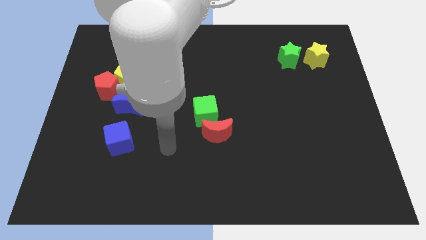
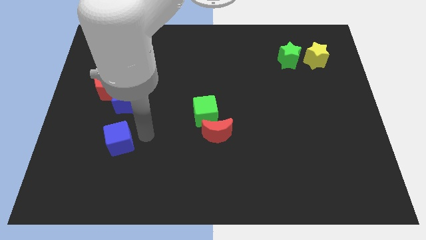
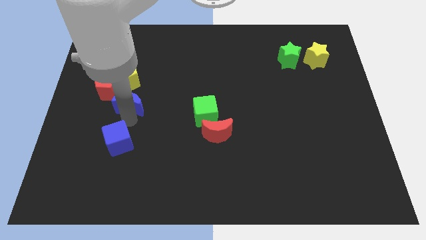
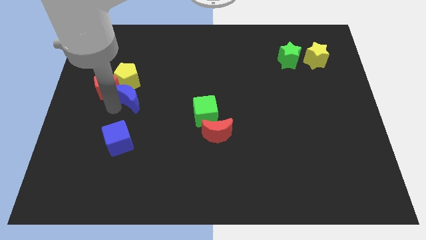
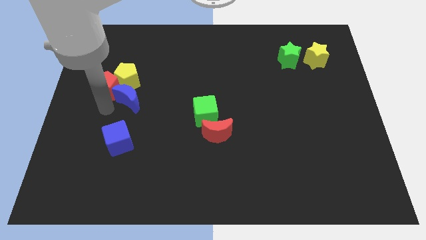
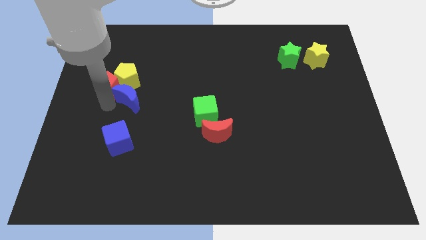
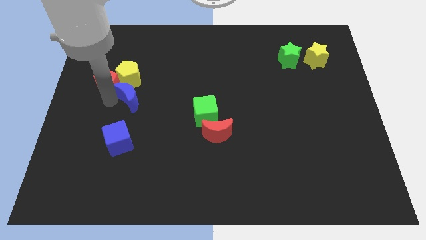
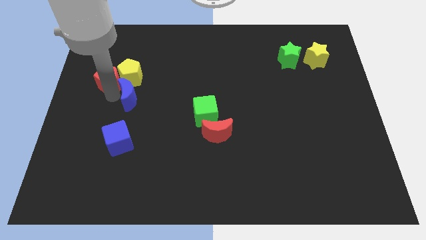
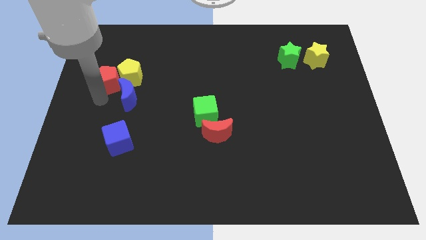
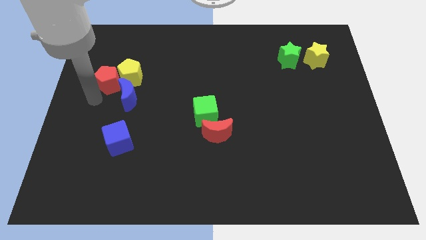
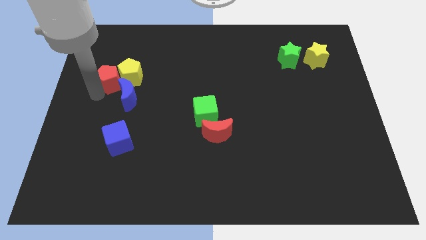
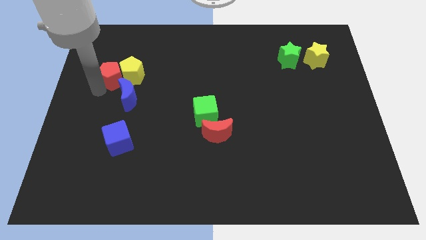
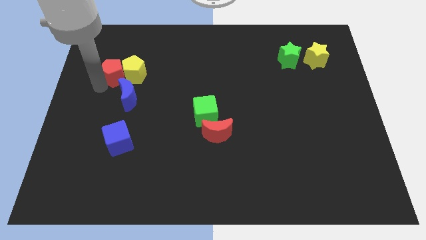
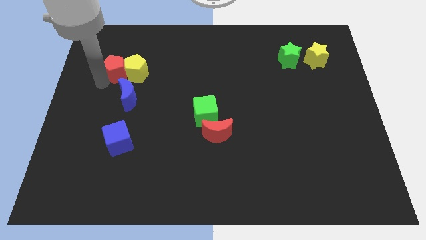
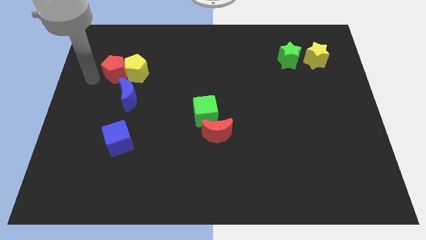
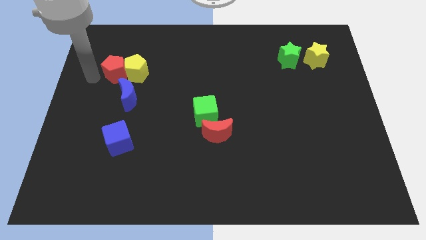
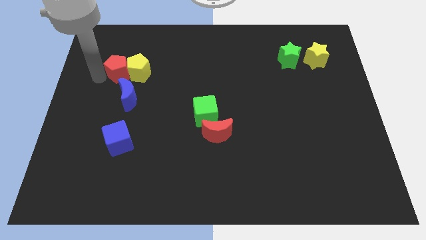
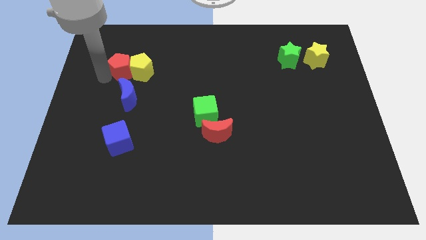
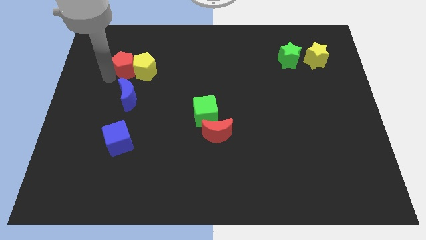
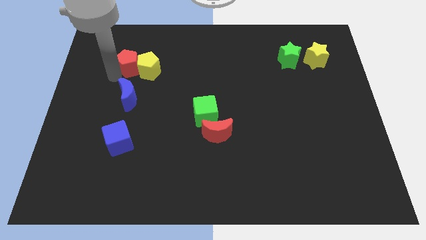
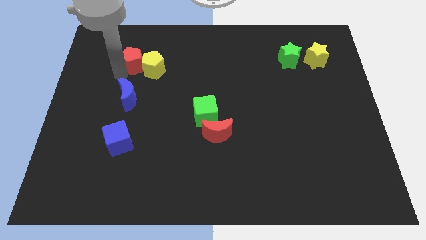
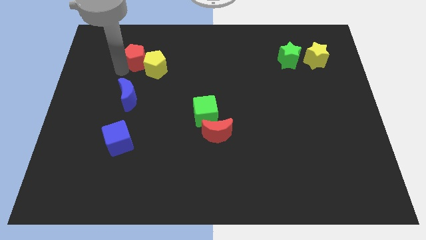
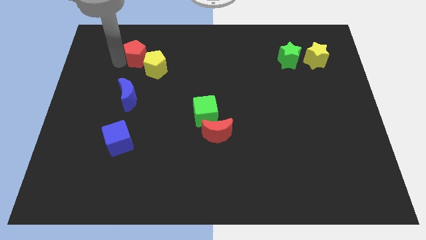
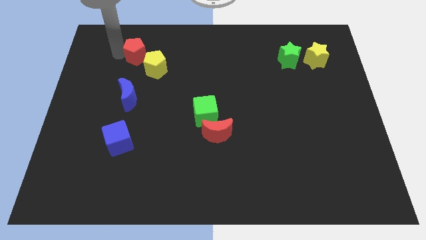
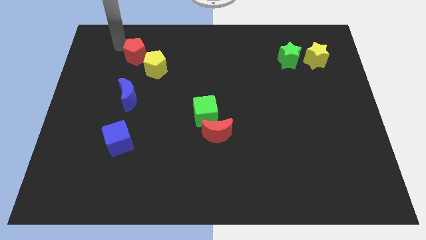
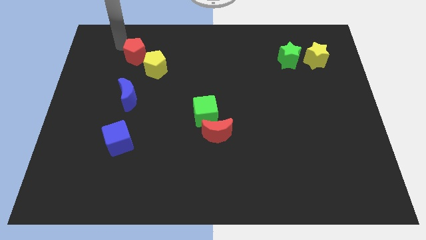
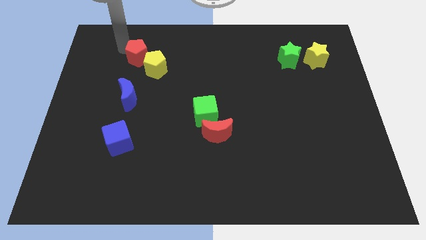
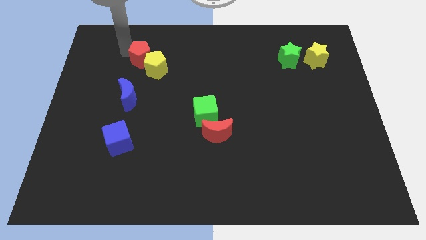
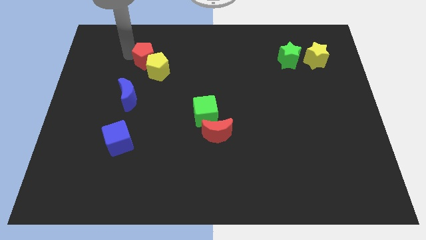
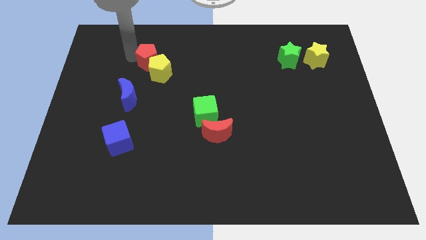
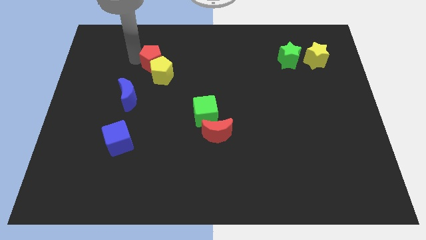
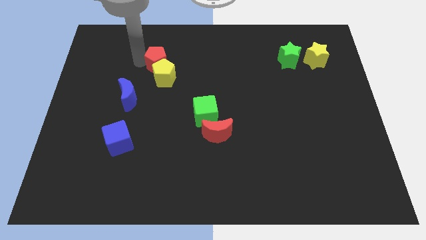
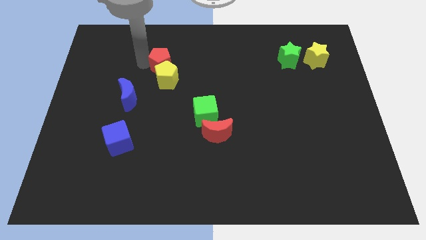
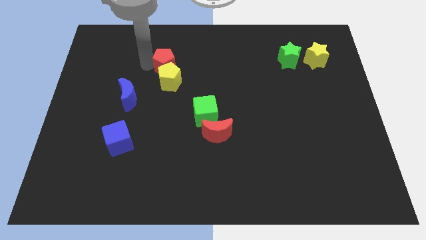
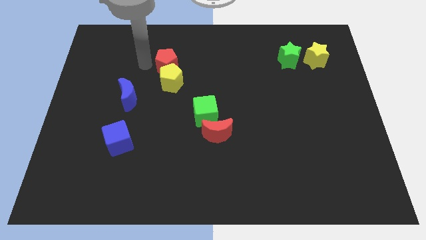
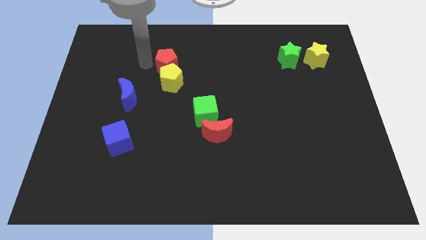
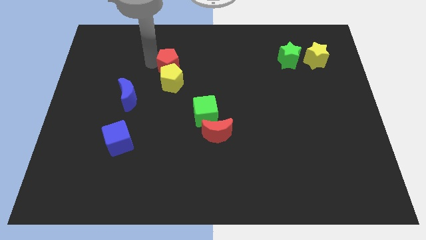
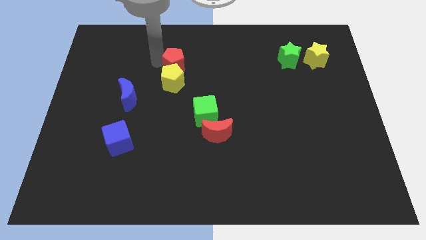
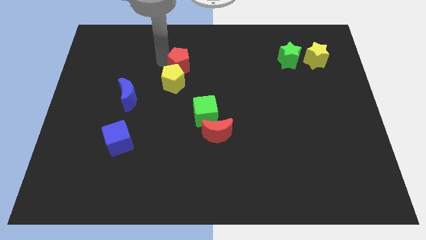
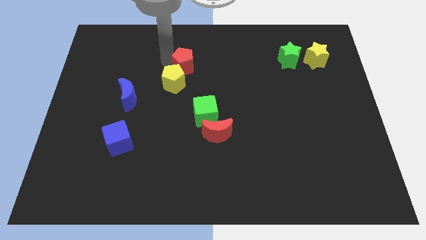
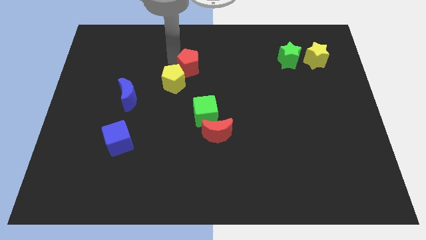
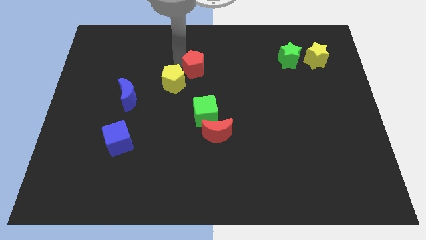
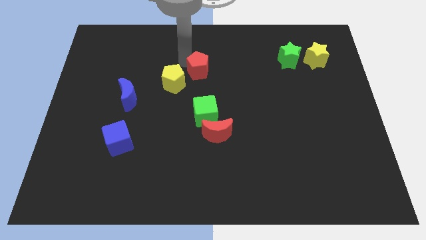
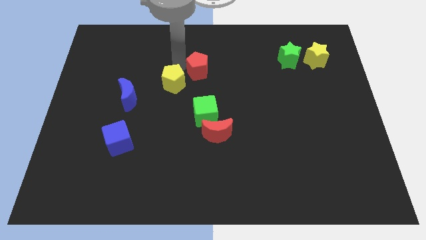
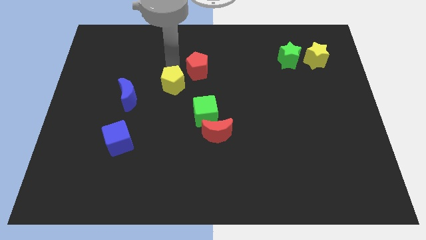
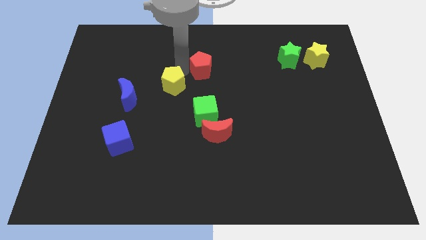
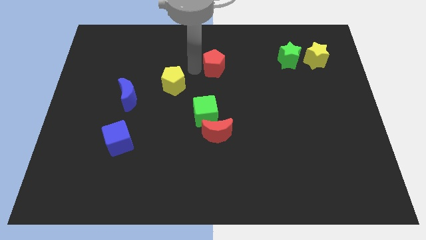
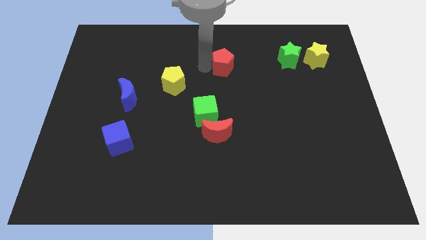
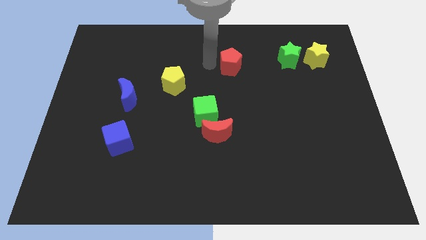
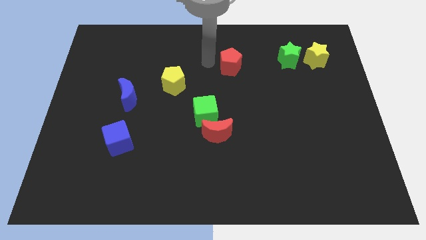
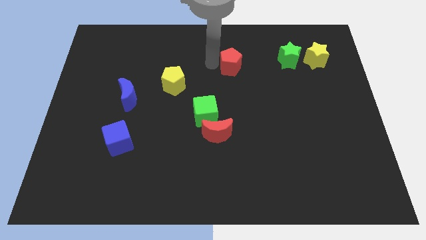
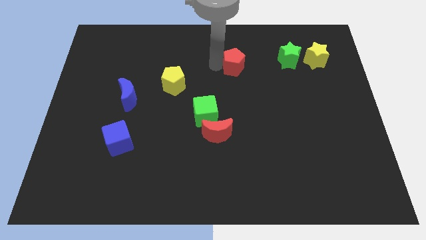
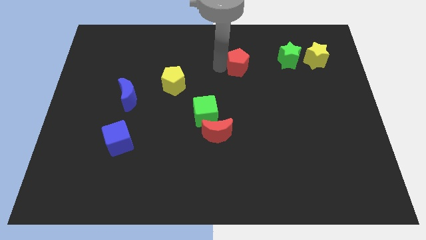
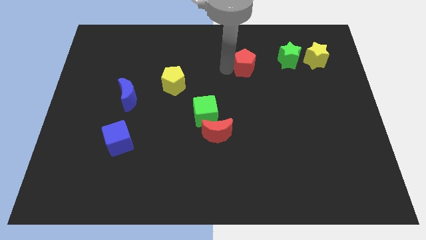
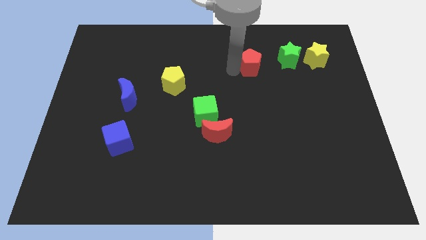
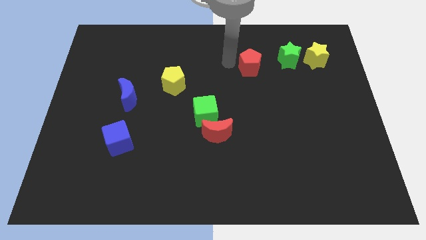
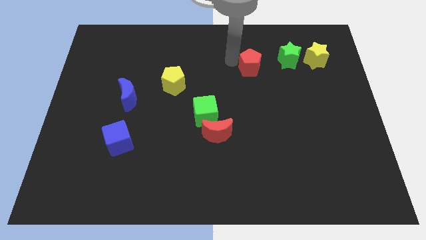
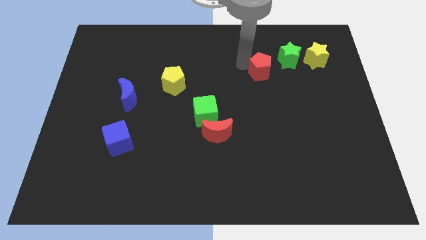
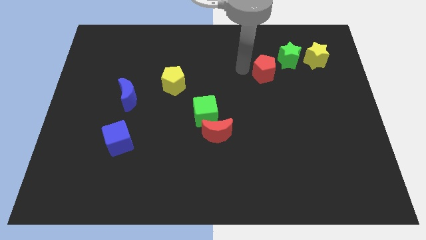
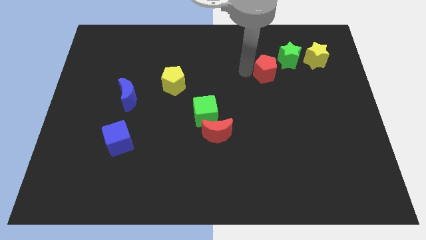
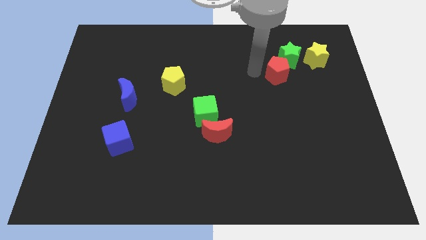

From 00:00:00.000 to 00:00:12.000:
push the red pentagon to the bottom left of the yellow star

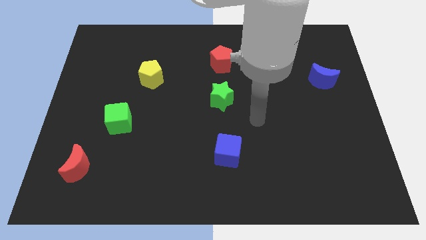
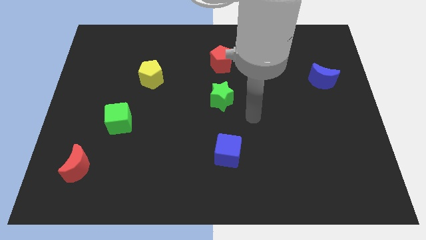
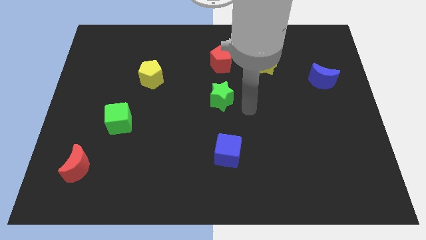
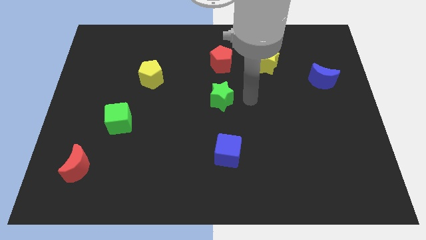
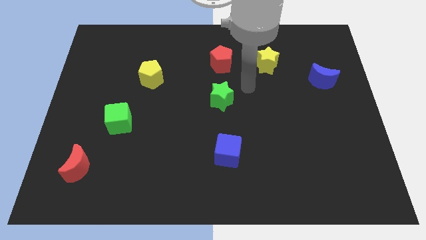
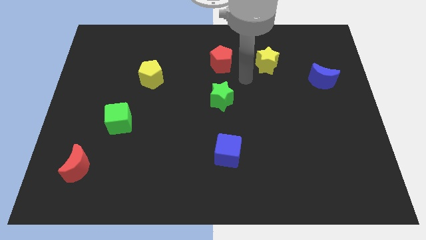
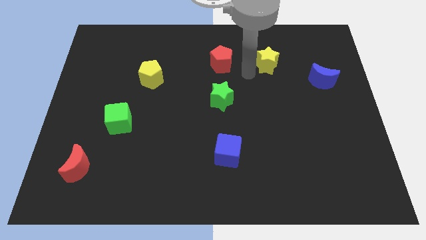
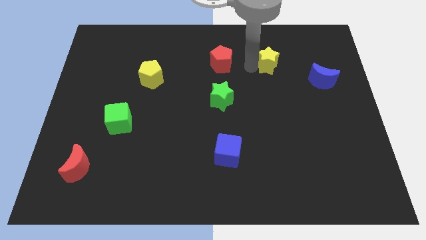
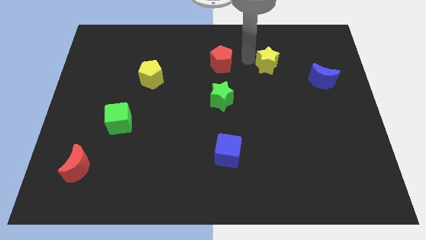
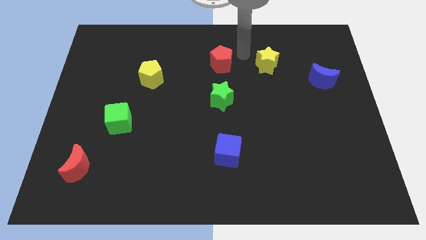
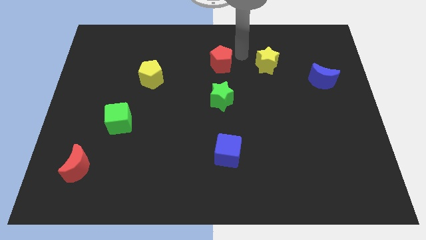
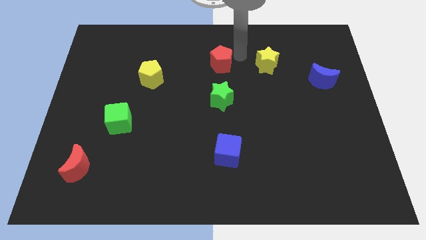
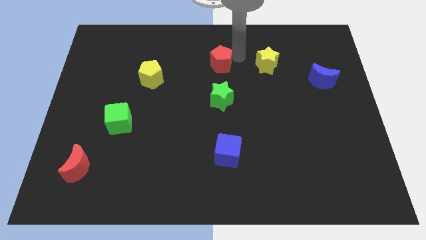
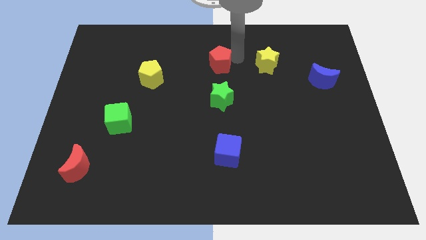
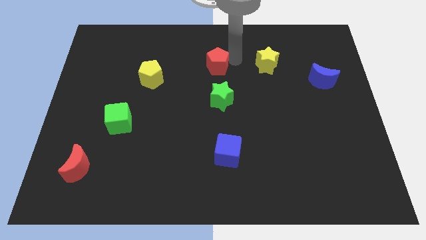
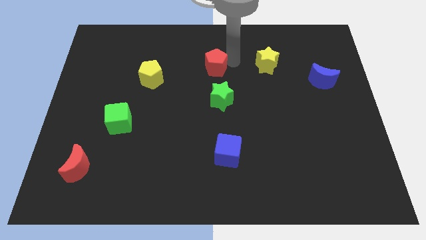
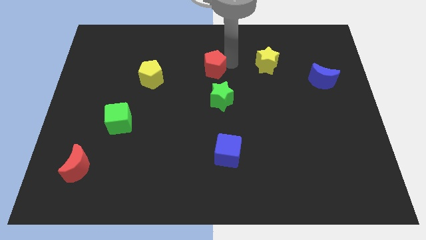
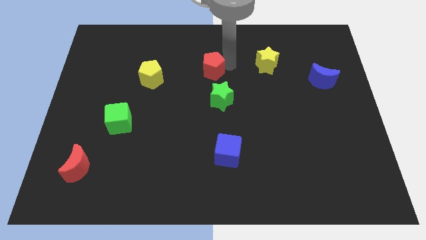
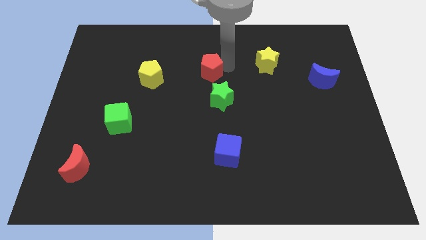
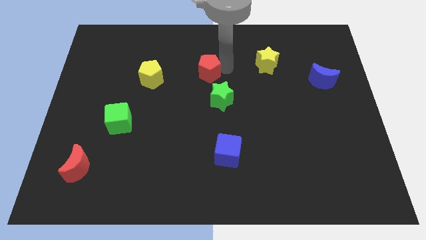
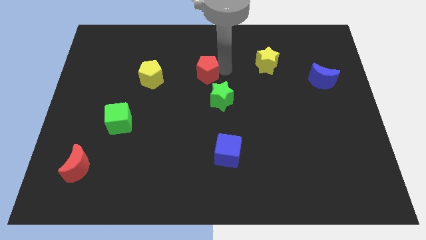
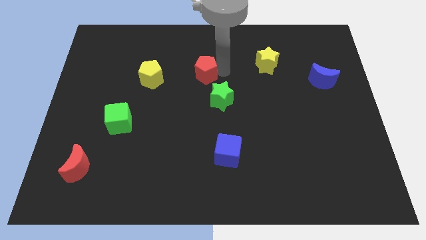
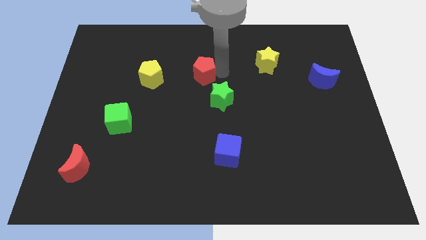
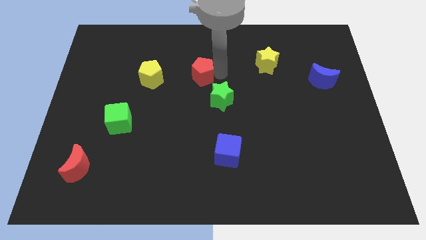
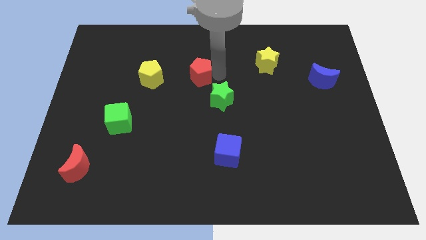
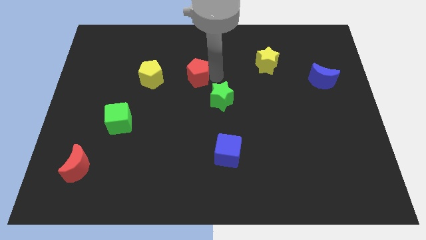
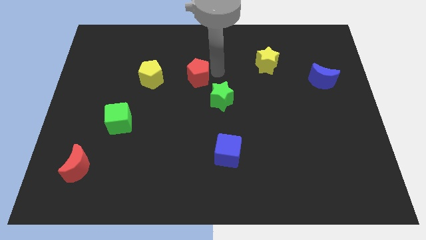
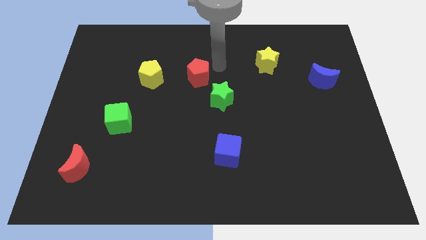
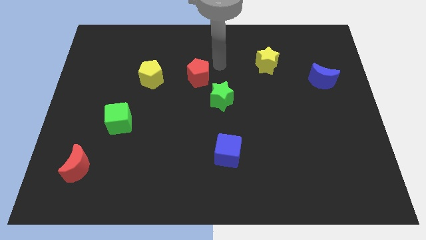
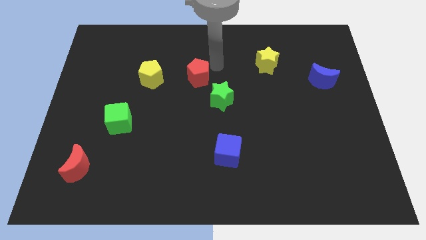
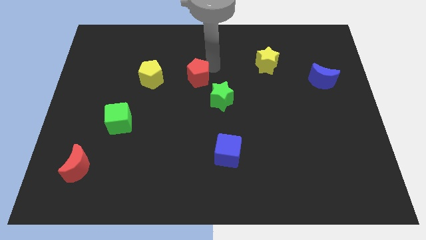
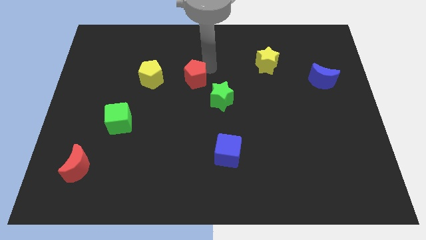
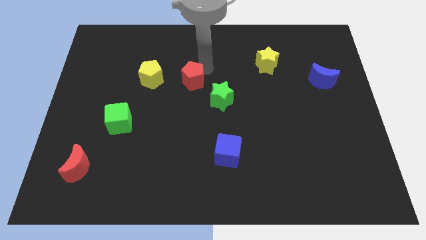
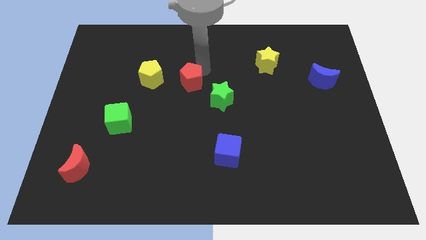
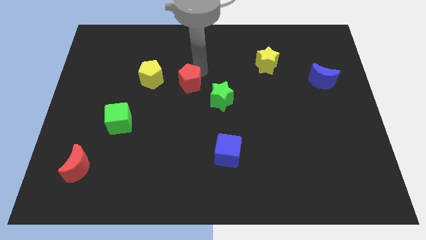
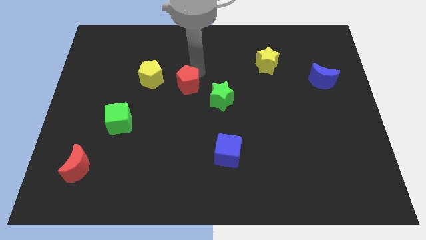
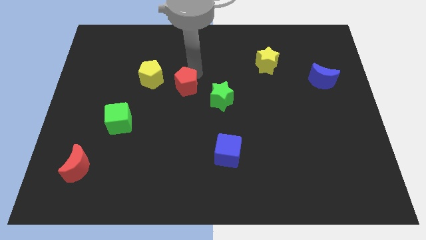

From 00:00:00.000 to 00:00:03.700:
slide the red pentagon to the bottom right of the yellow pentagon
